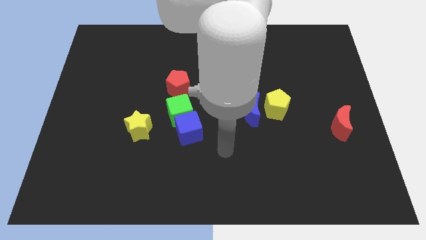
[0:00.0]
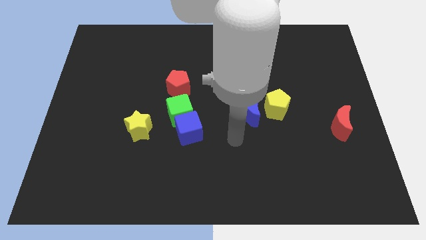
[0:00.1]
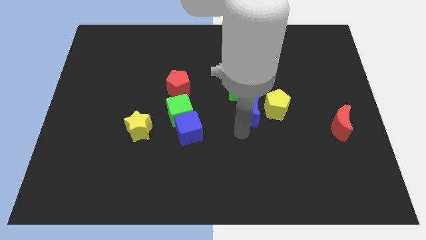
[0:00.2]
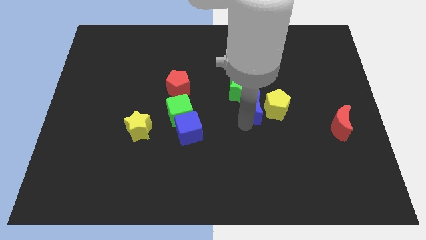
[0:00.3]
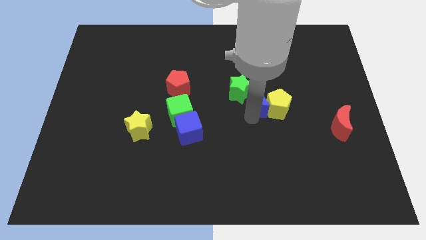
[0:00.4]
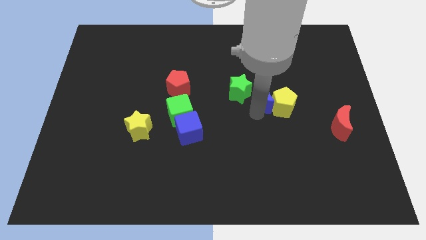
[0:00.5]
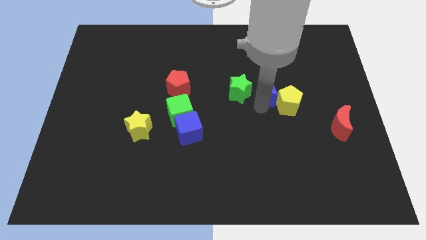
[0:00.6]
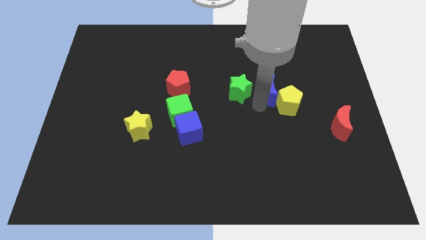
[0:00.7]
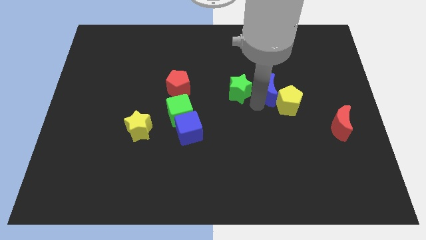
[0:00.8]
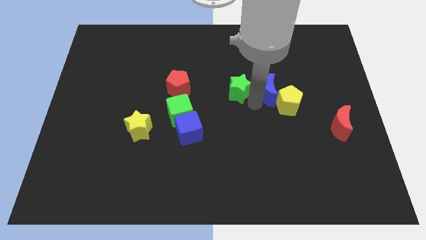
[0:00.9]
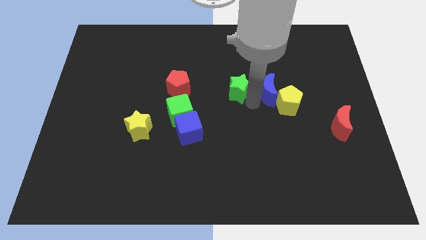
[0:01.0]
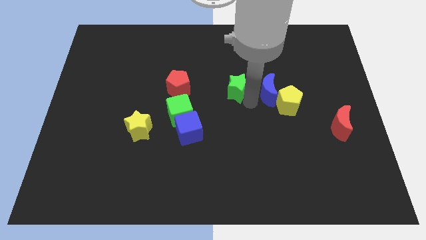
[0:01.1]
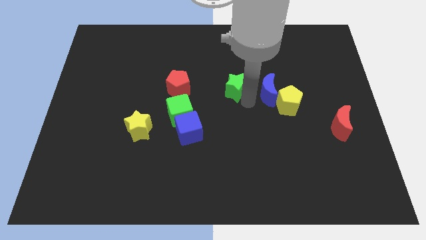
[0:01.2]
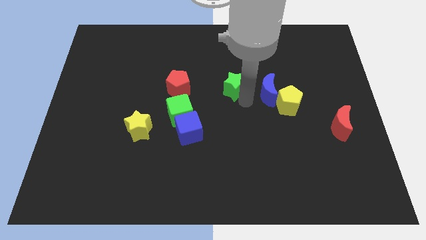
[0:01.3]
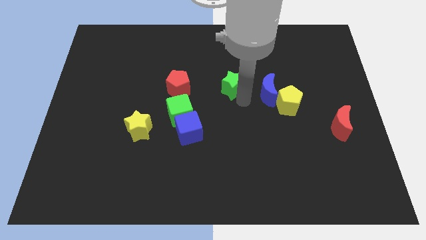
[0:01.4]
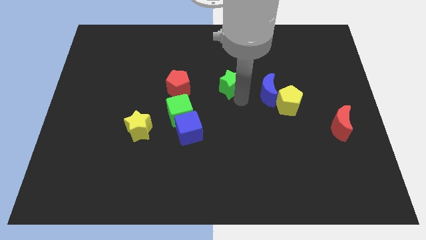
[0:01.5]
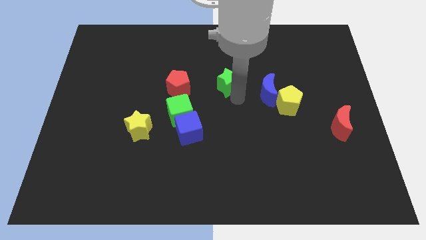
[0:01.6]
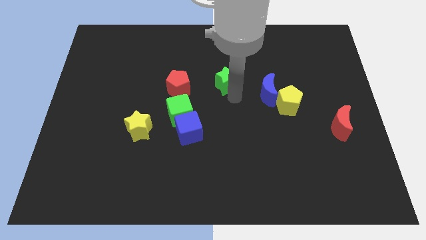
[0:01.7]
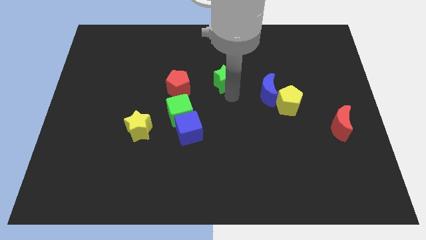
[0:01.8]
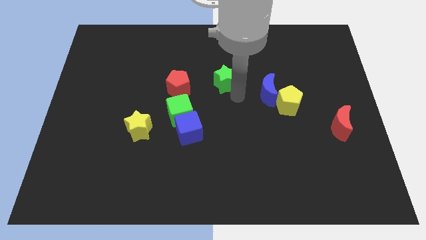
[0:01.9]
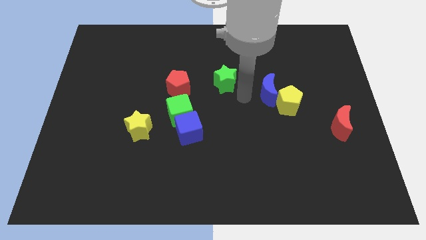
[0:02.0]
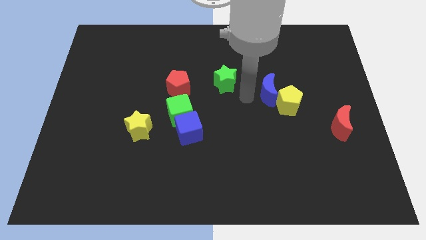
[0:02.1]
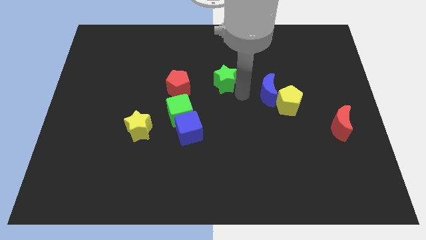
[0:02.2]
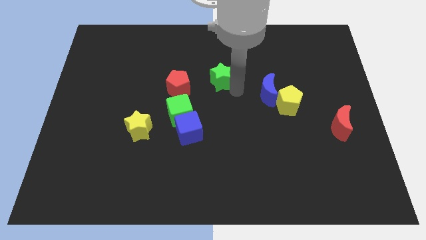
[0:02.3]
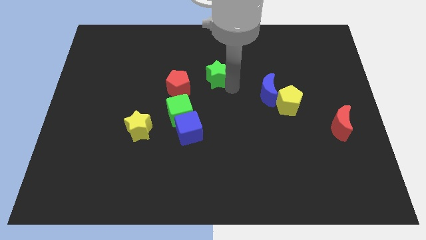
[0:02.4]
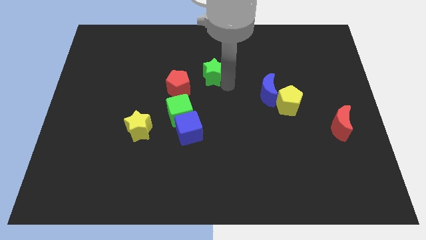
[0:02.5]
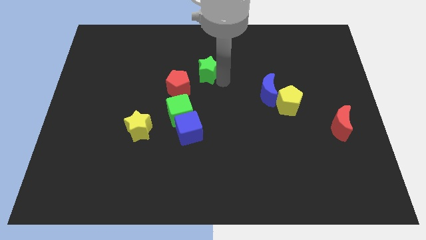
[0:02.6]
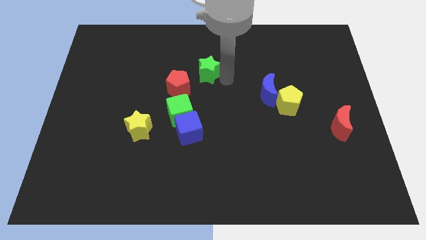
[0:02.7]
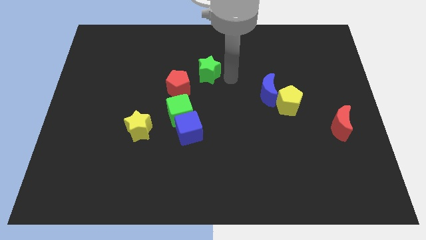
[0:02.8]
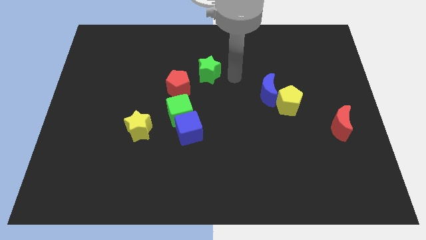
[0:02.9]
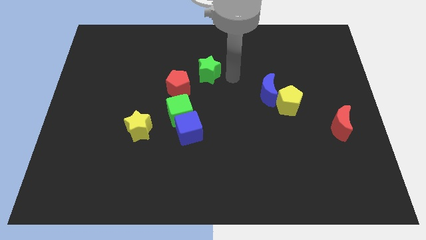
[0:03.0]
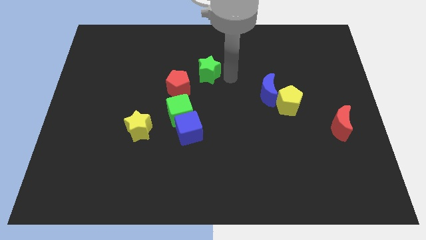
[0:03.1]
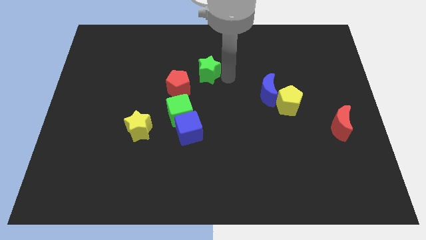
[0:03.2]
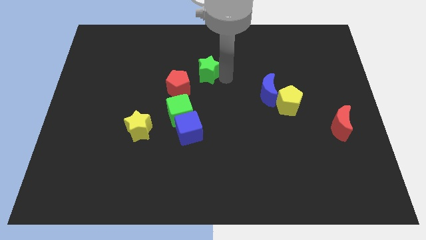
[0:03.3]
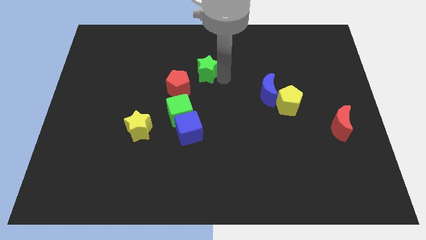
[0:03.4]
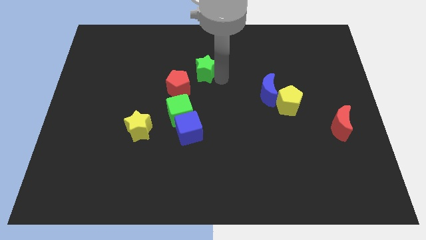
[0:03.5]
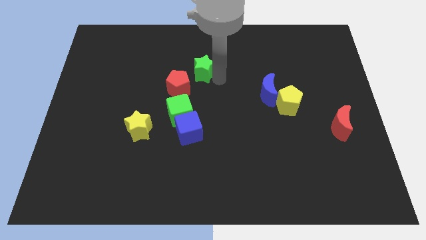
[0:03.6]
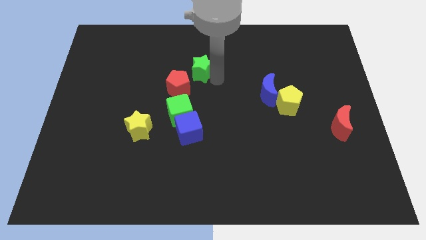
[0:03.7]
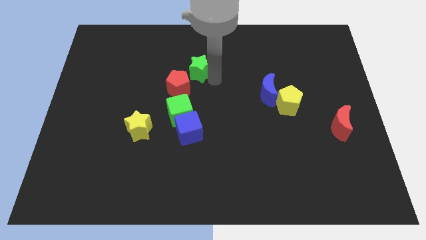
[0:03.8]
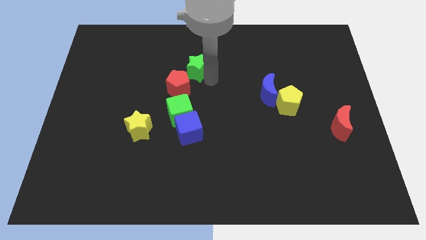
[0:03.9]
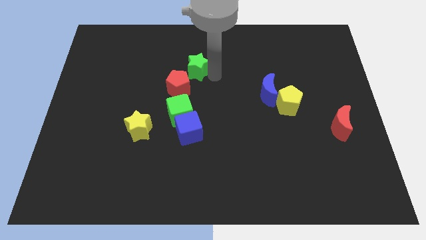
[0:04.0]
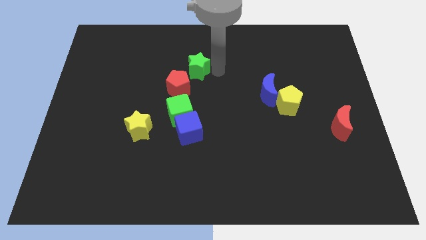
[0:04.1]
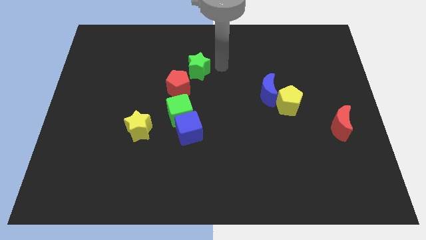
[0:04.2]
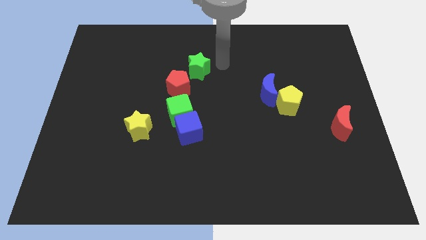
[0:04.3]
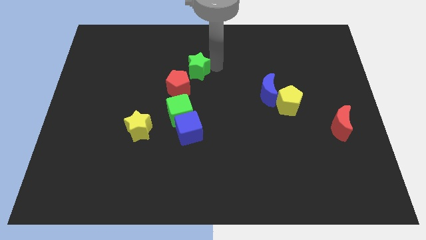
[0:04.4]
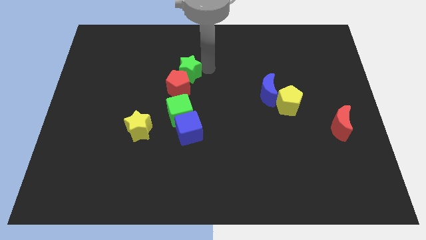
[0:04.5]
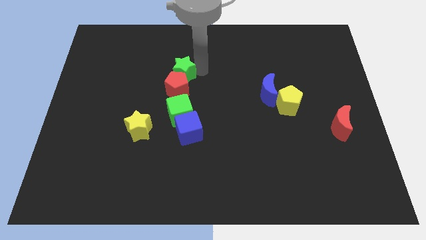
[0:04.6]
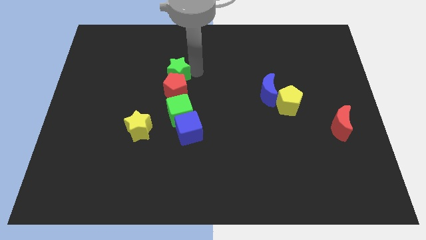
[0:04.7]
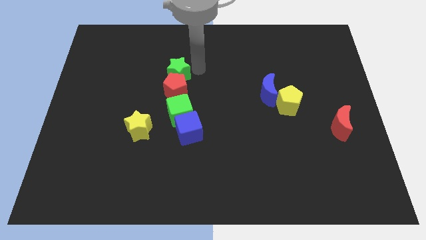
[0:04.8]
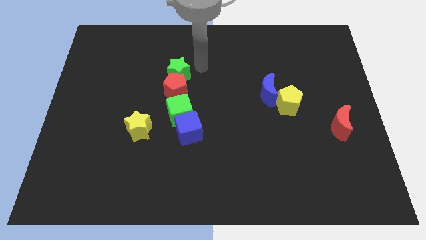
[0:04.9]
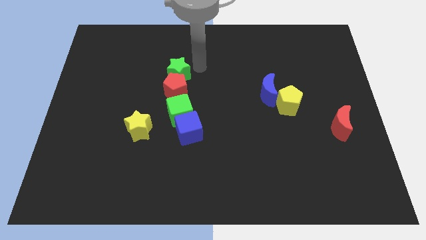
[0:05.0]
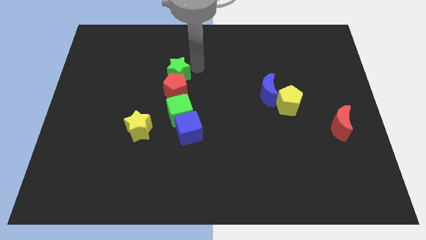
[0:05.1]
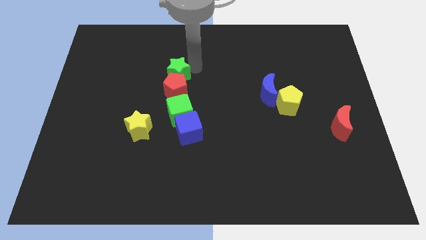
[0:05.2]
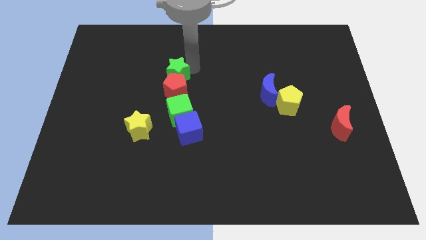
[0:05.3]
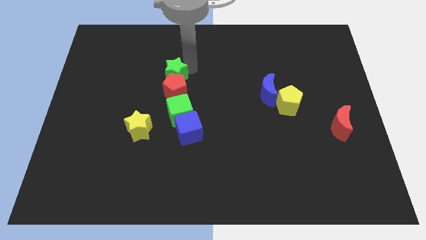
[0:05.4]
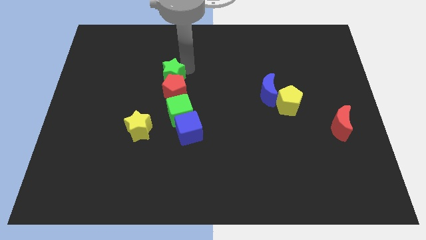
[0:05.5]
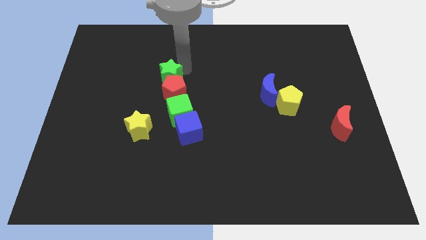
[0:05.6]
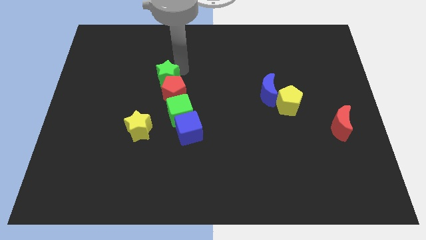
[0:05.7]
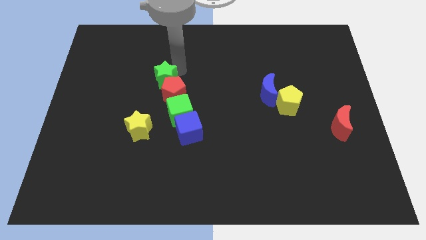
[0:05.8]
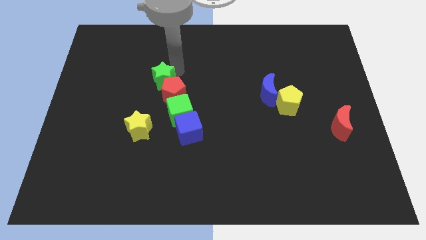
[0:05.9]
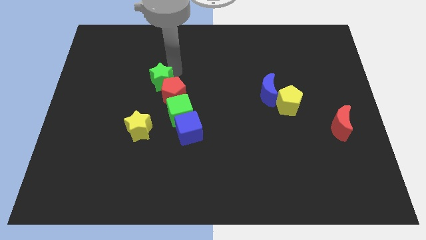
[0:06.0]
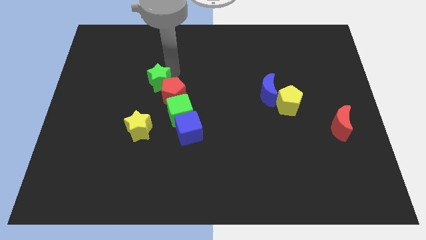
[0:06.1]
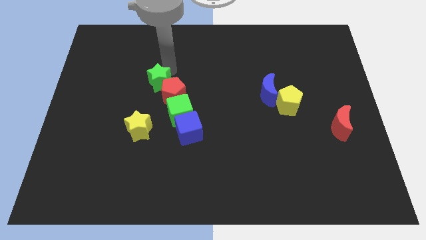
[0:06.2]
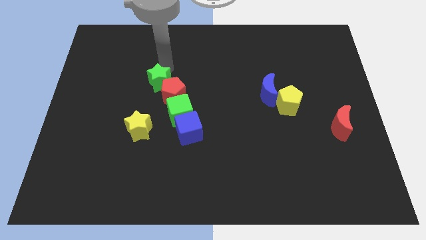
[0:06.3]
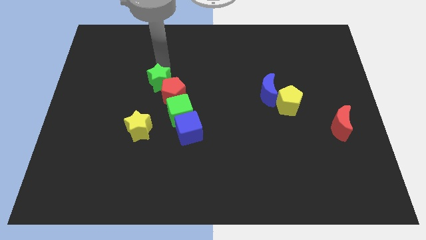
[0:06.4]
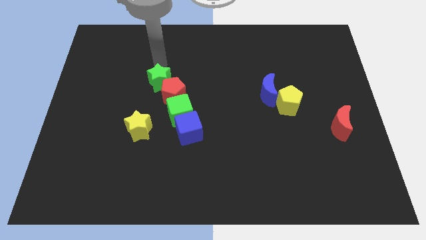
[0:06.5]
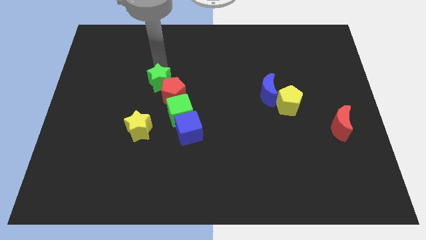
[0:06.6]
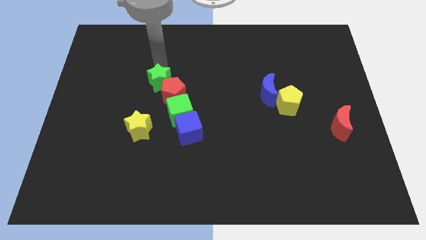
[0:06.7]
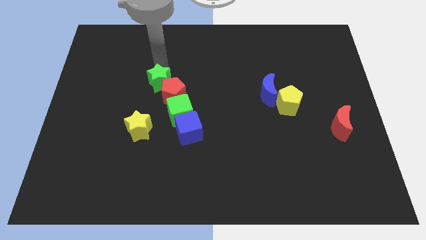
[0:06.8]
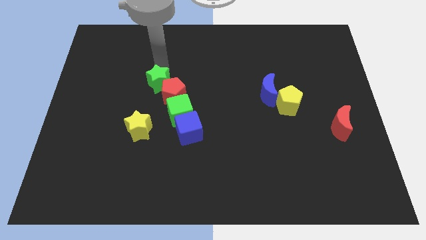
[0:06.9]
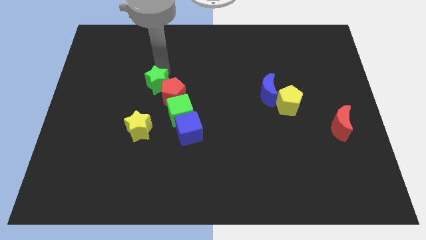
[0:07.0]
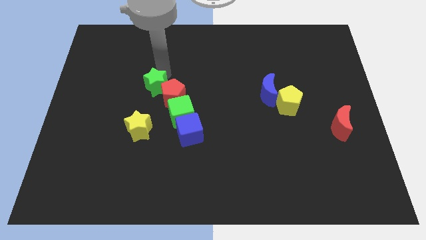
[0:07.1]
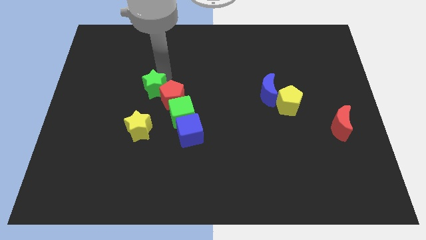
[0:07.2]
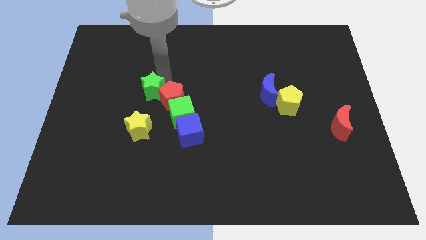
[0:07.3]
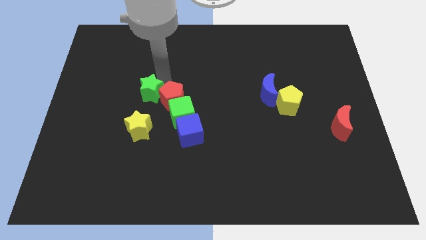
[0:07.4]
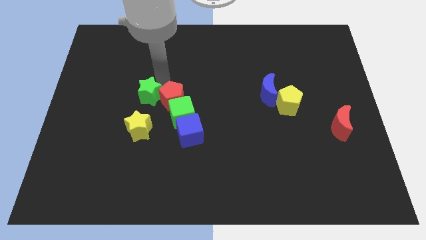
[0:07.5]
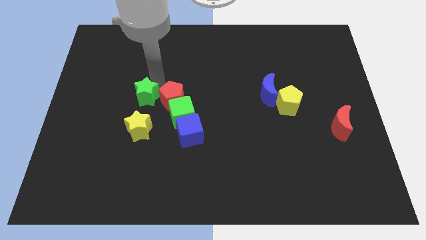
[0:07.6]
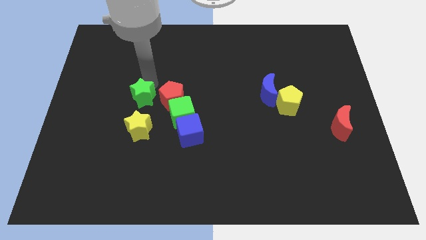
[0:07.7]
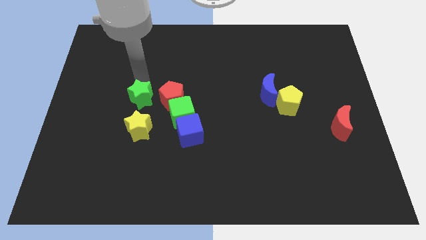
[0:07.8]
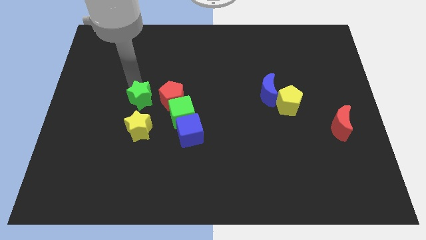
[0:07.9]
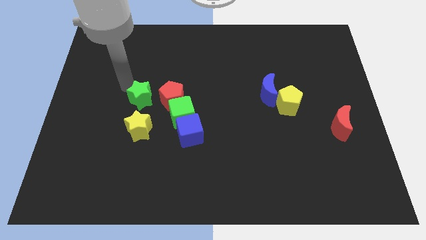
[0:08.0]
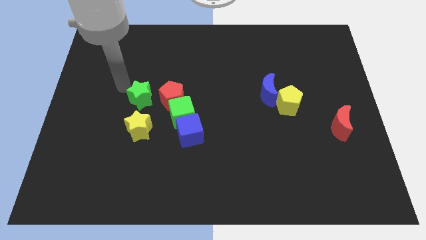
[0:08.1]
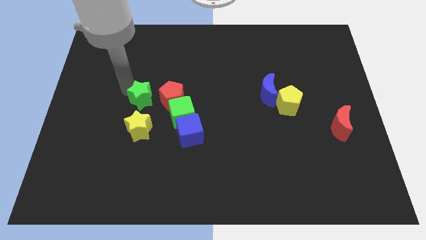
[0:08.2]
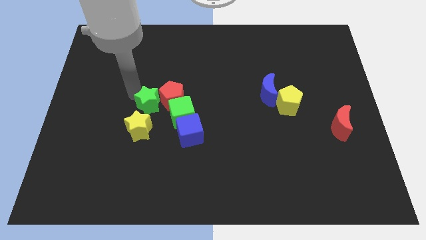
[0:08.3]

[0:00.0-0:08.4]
slide the green star to the top left side of the blue cube
